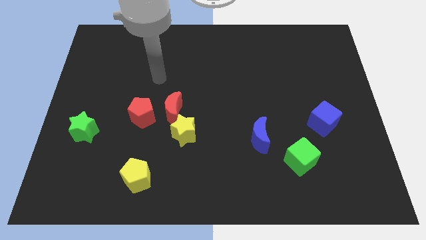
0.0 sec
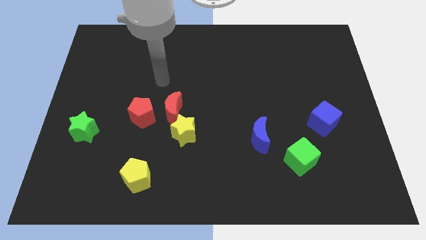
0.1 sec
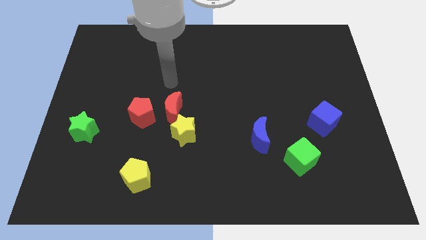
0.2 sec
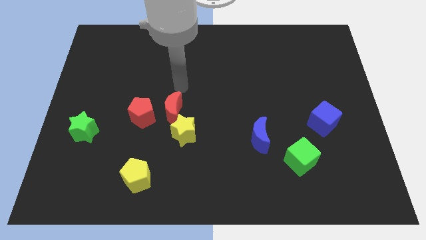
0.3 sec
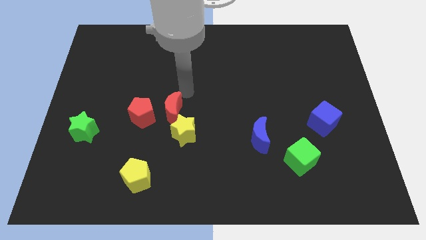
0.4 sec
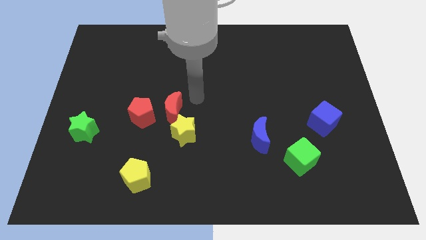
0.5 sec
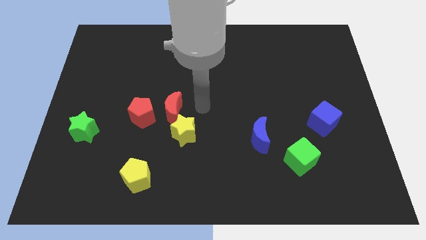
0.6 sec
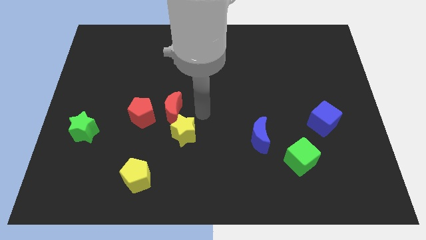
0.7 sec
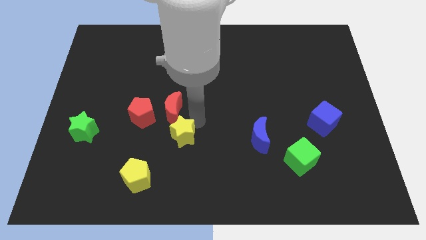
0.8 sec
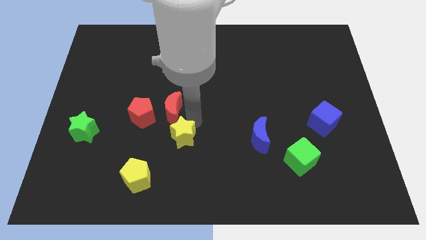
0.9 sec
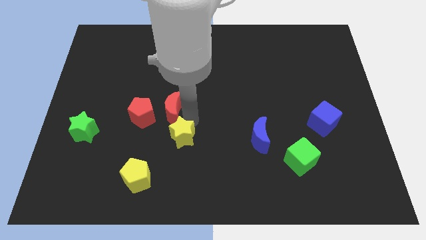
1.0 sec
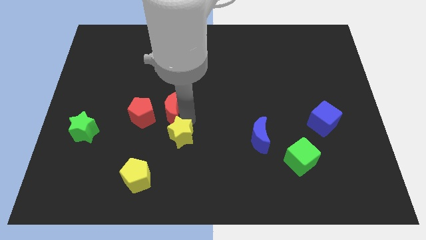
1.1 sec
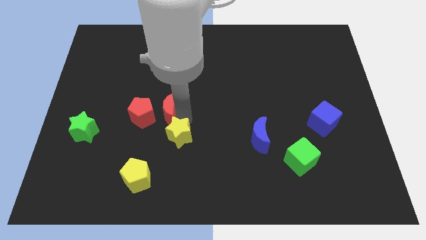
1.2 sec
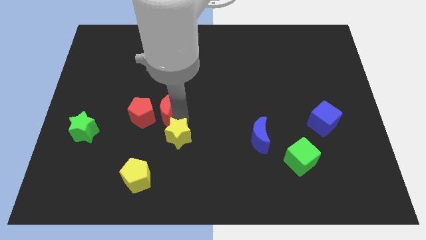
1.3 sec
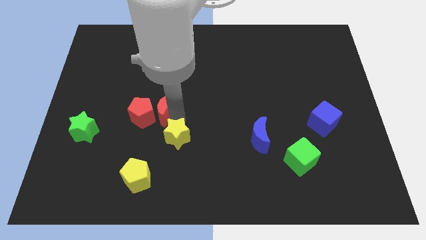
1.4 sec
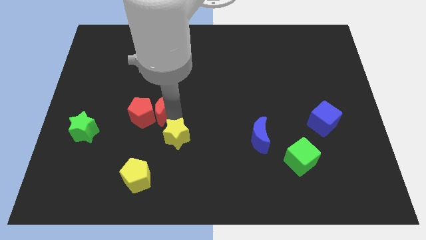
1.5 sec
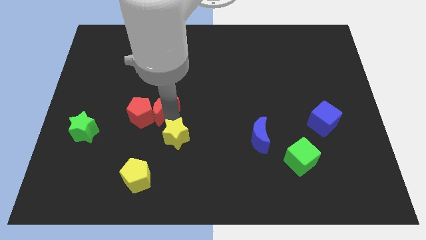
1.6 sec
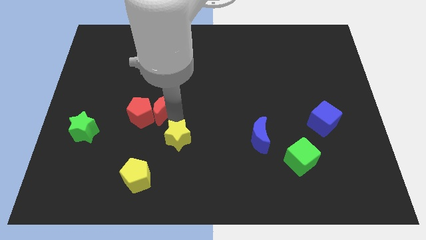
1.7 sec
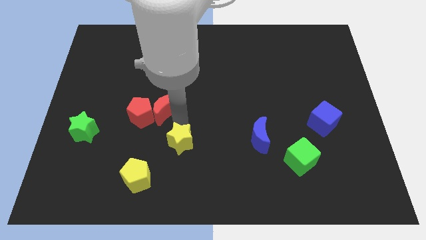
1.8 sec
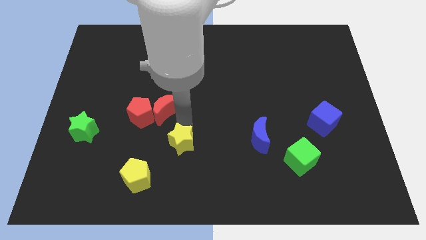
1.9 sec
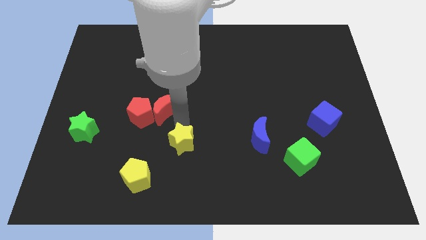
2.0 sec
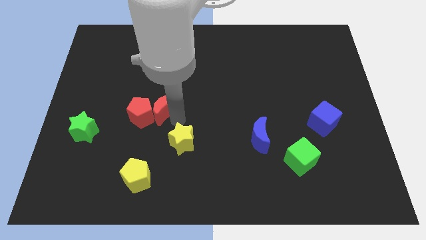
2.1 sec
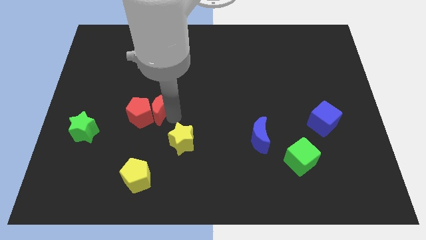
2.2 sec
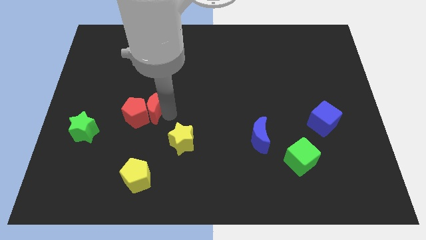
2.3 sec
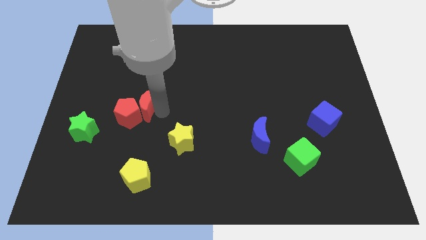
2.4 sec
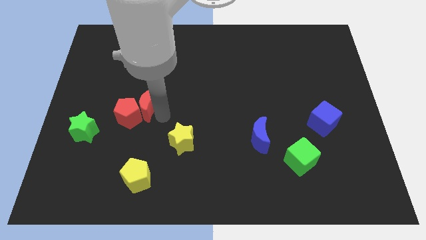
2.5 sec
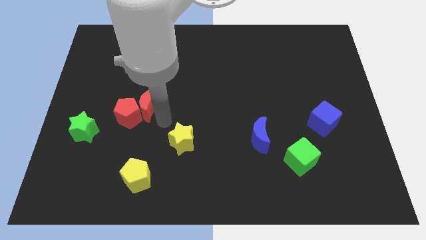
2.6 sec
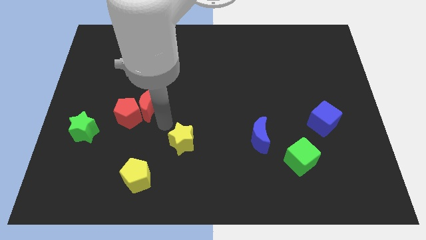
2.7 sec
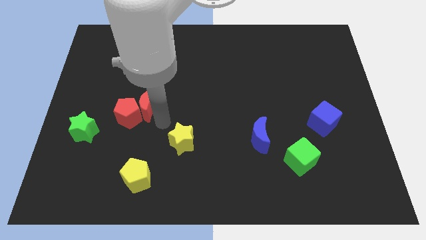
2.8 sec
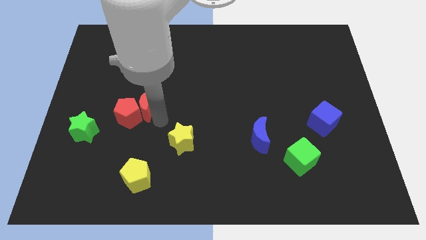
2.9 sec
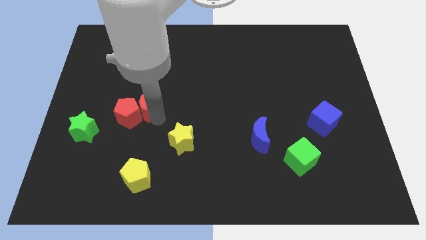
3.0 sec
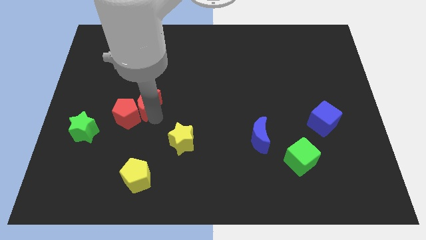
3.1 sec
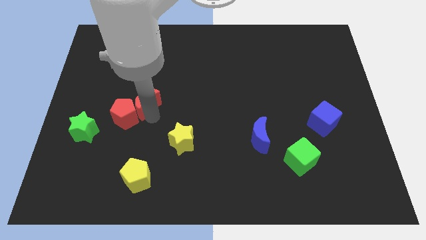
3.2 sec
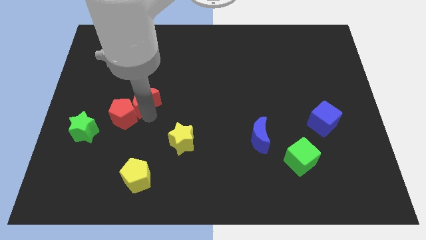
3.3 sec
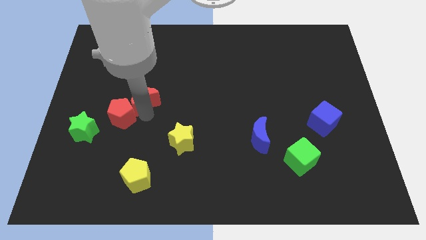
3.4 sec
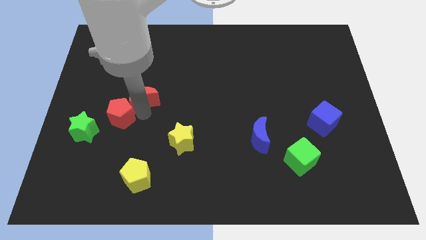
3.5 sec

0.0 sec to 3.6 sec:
push the red moon upwards and left somewhat

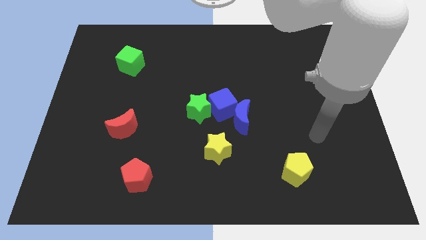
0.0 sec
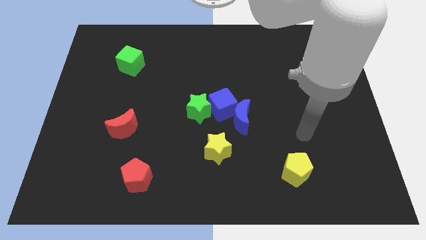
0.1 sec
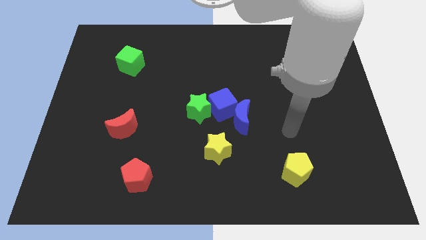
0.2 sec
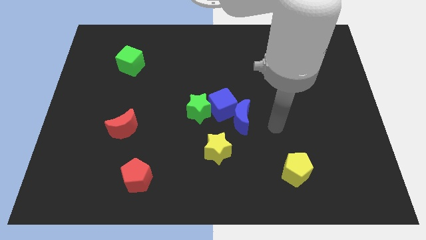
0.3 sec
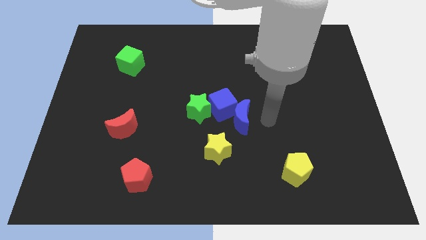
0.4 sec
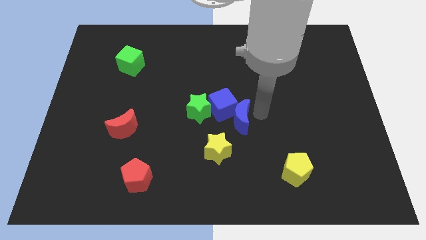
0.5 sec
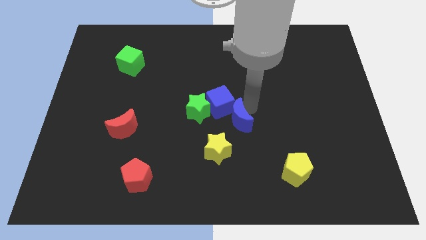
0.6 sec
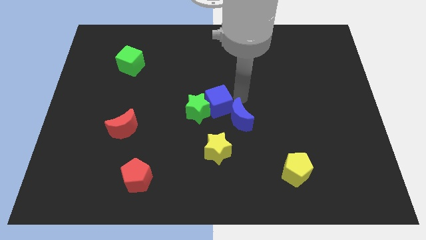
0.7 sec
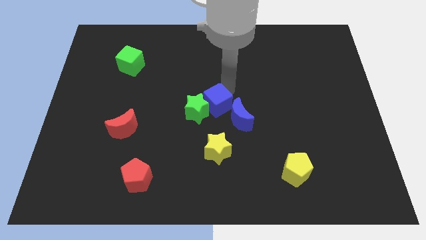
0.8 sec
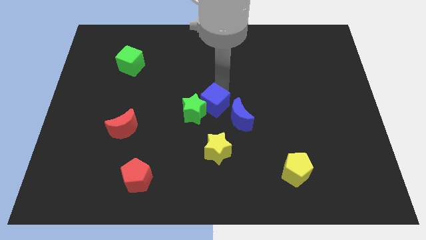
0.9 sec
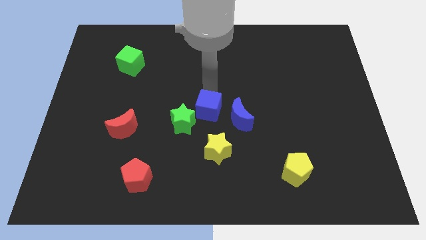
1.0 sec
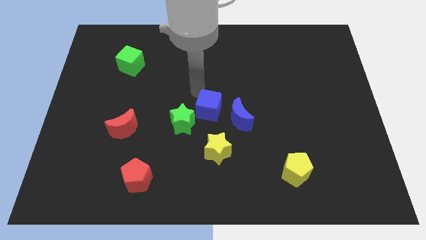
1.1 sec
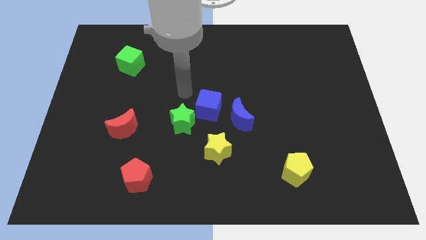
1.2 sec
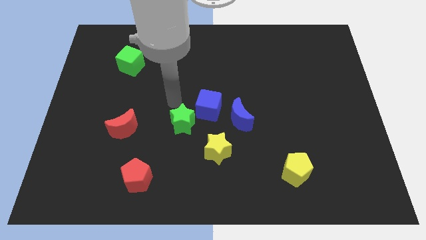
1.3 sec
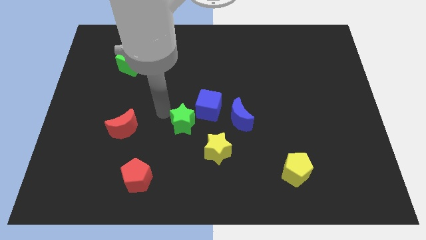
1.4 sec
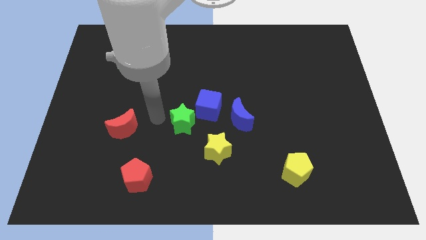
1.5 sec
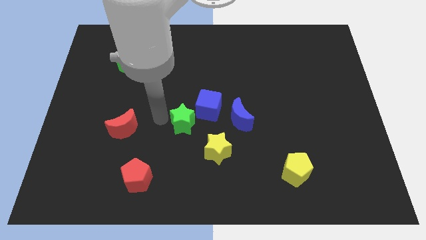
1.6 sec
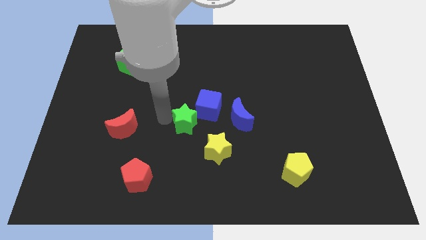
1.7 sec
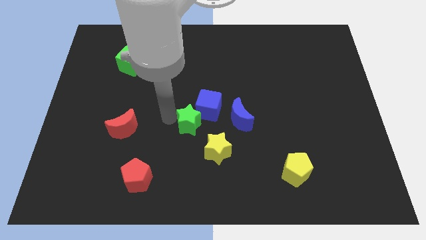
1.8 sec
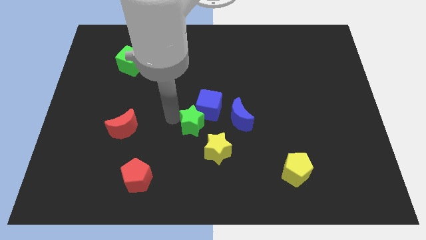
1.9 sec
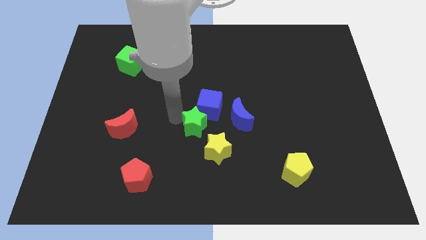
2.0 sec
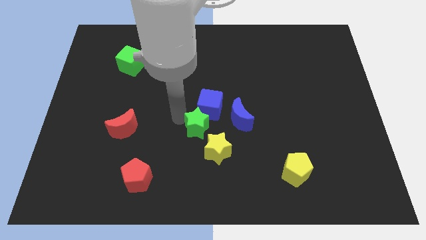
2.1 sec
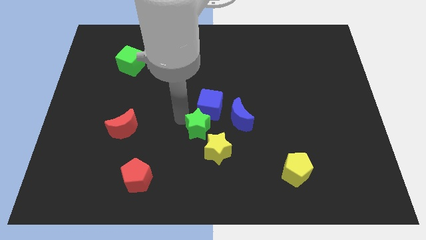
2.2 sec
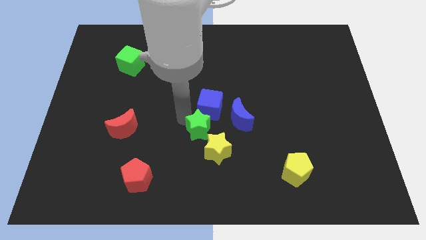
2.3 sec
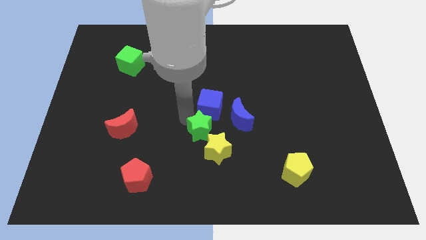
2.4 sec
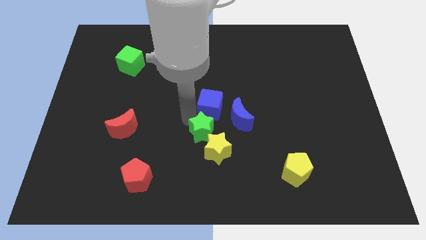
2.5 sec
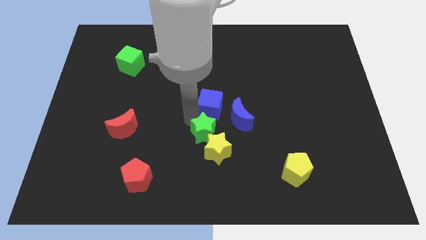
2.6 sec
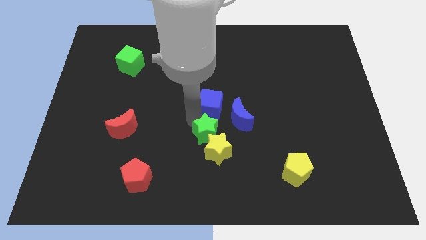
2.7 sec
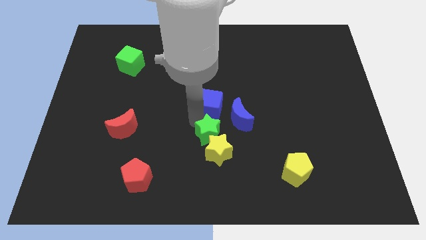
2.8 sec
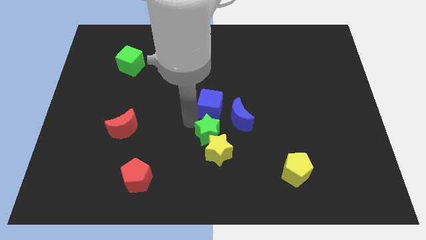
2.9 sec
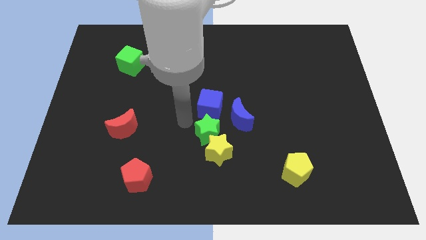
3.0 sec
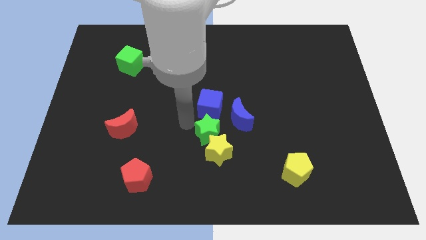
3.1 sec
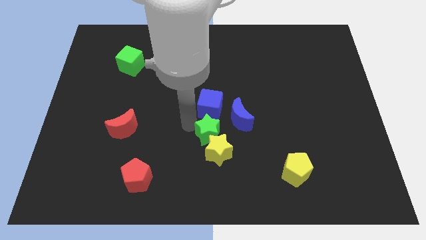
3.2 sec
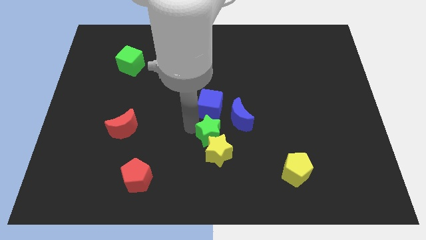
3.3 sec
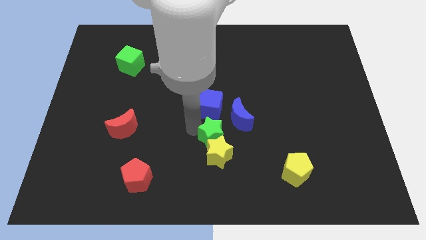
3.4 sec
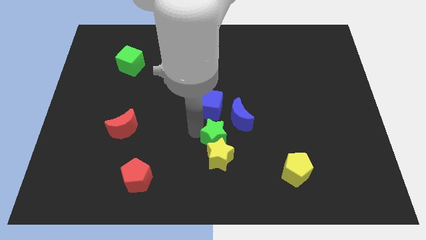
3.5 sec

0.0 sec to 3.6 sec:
move the green star a little diagonally down and to the right

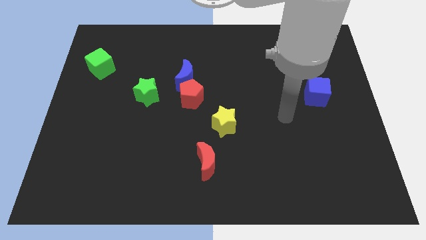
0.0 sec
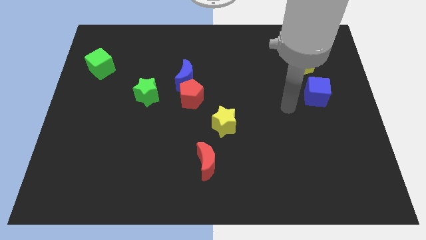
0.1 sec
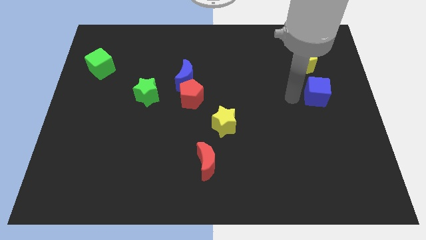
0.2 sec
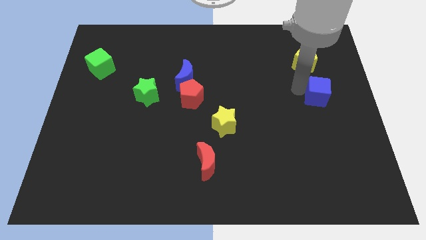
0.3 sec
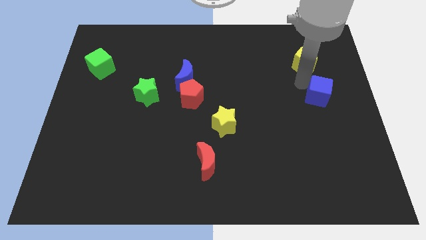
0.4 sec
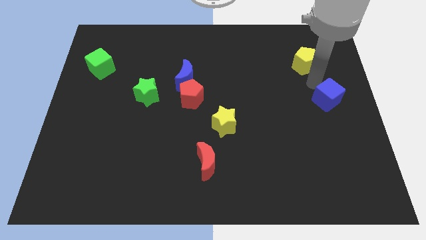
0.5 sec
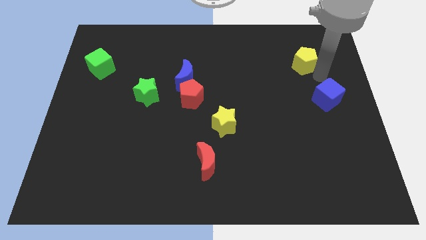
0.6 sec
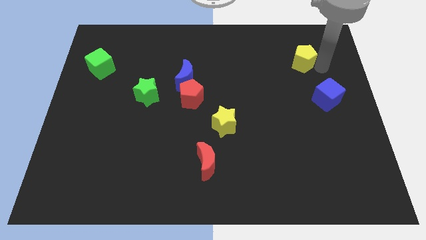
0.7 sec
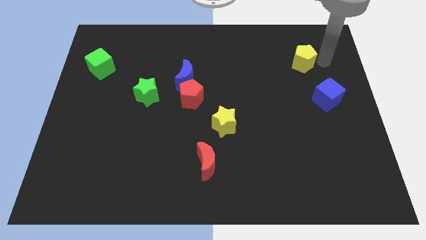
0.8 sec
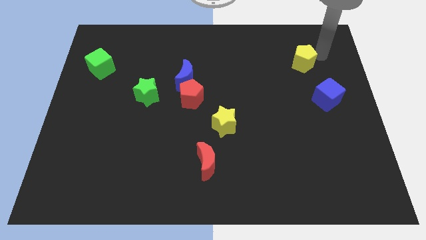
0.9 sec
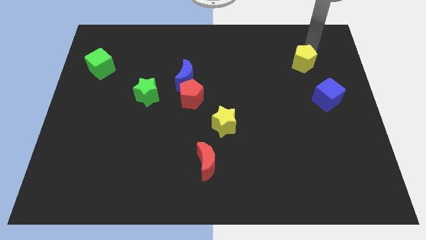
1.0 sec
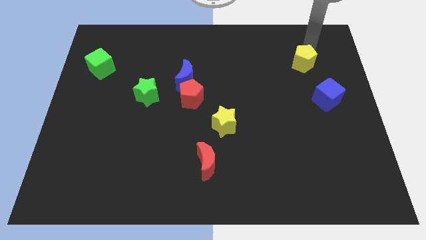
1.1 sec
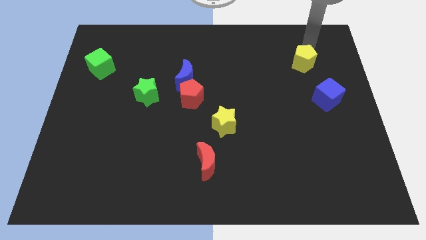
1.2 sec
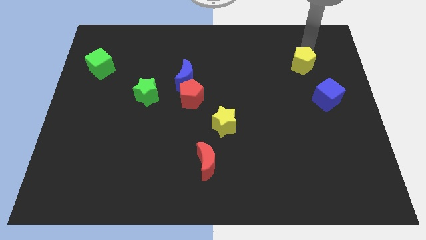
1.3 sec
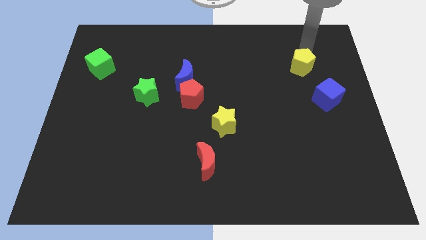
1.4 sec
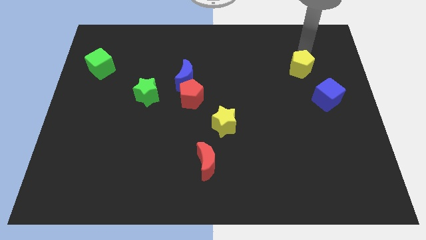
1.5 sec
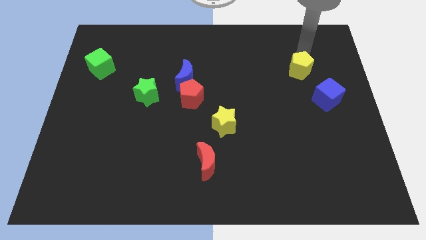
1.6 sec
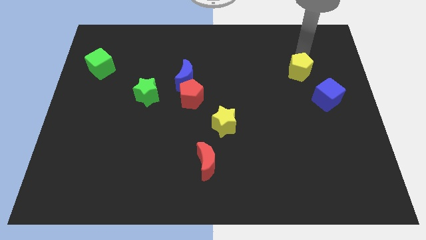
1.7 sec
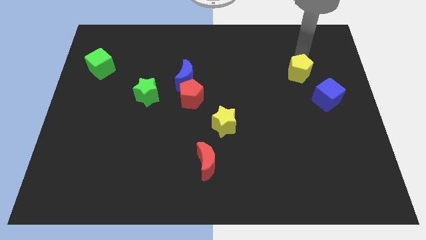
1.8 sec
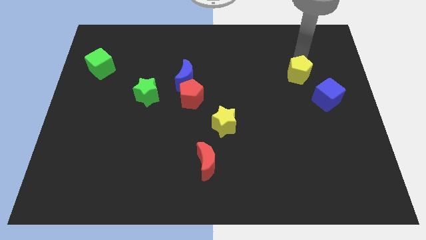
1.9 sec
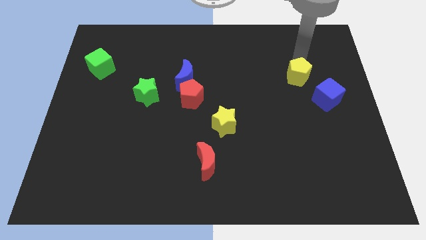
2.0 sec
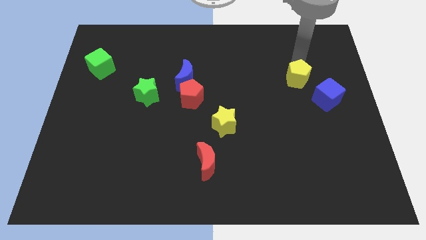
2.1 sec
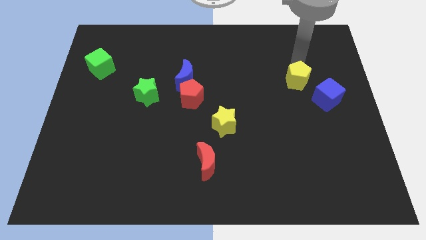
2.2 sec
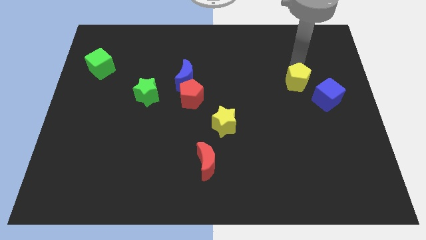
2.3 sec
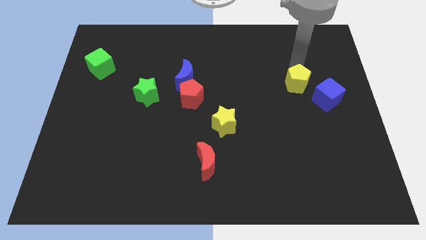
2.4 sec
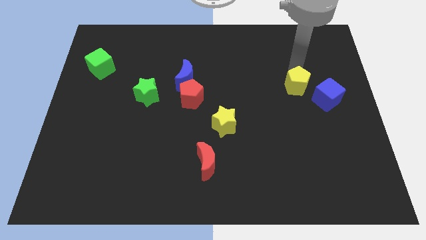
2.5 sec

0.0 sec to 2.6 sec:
slightly slide the yellow pentagon down
